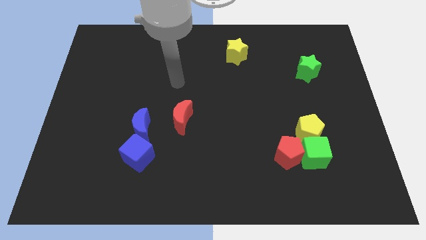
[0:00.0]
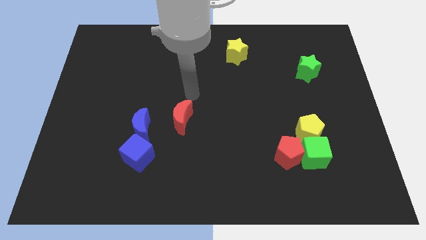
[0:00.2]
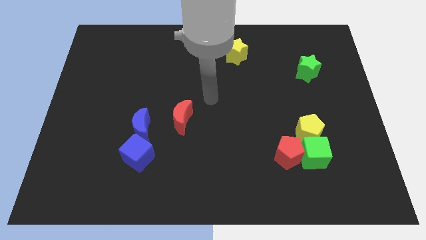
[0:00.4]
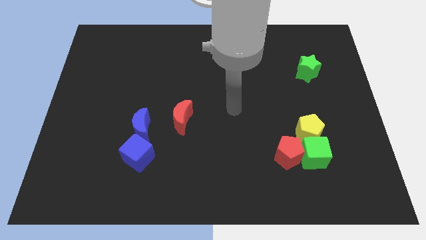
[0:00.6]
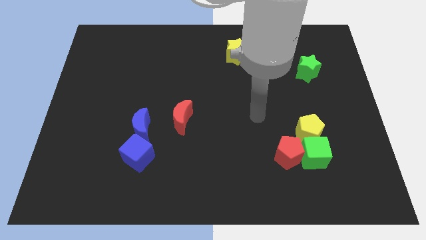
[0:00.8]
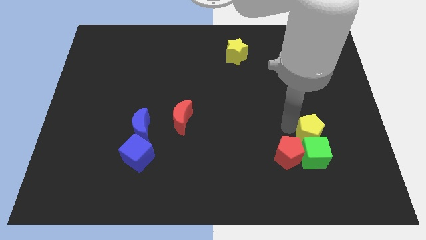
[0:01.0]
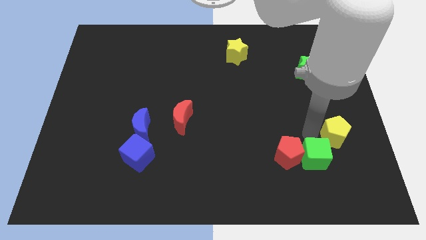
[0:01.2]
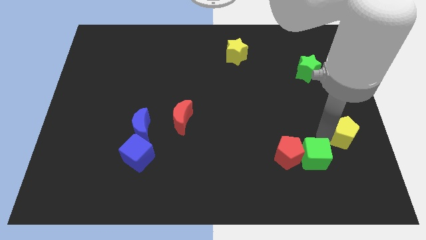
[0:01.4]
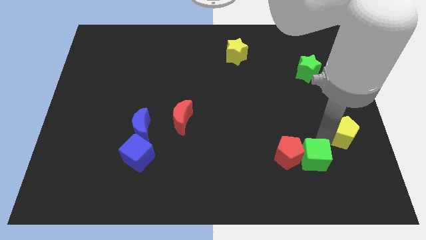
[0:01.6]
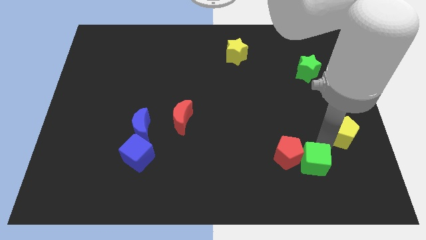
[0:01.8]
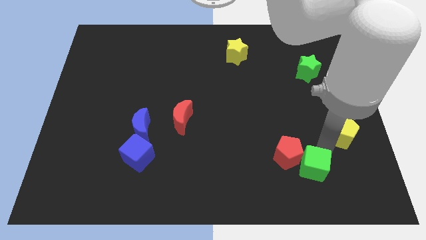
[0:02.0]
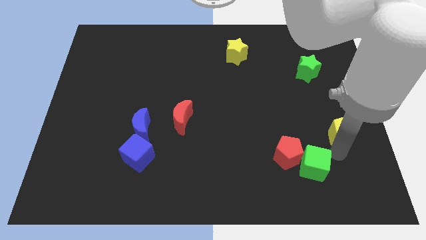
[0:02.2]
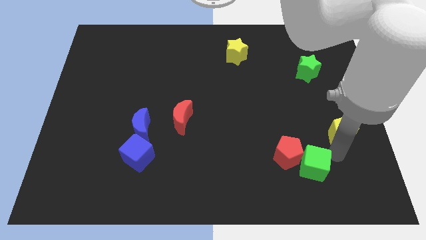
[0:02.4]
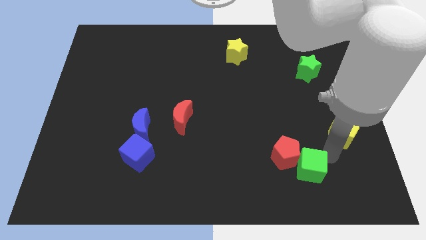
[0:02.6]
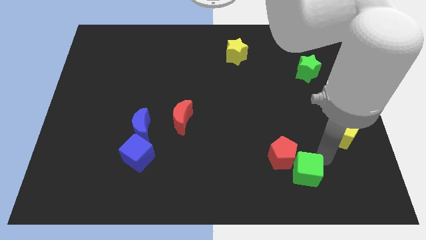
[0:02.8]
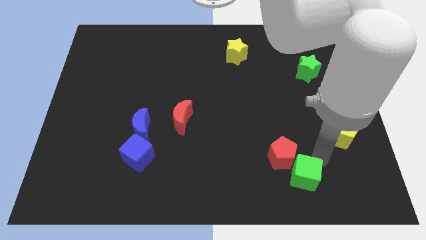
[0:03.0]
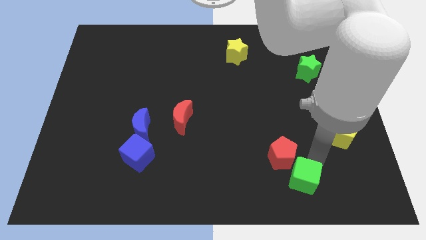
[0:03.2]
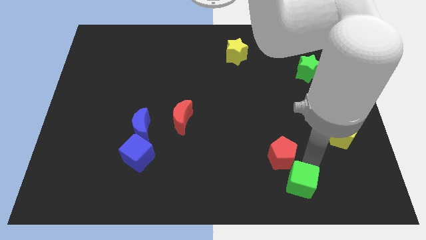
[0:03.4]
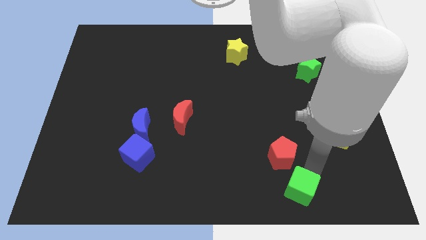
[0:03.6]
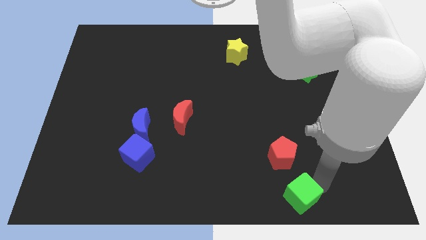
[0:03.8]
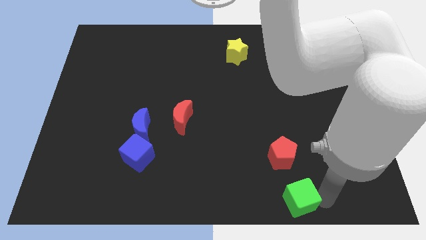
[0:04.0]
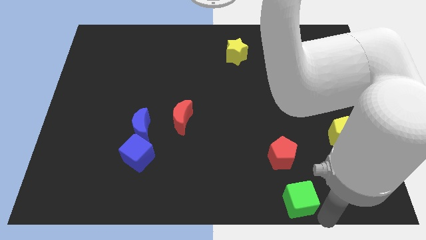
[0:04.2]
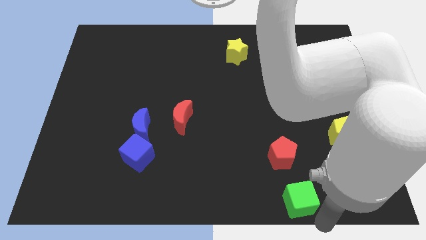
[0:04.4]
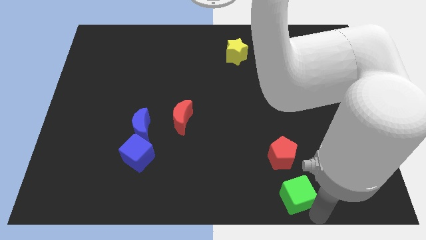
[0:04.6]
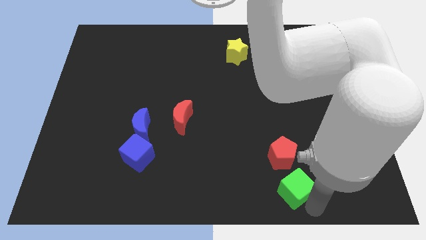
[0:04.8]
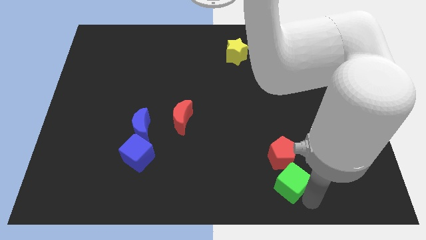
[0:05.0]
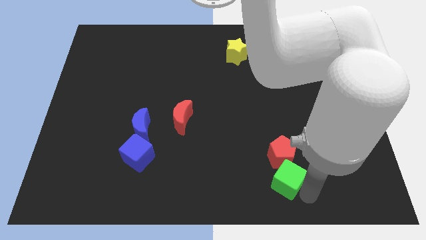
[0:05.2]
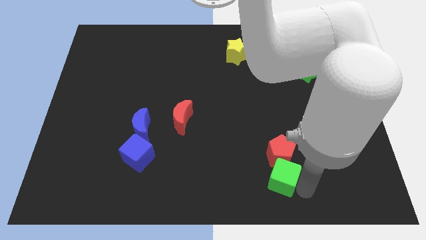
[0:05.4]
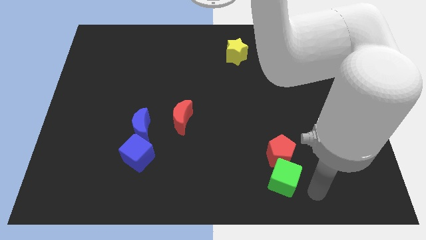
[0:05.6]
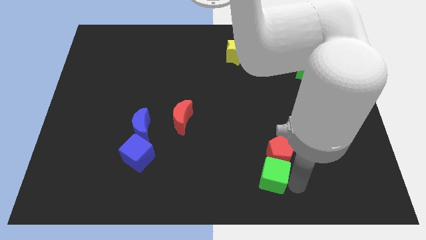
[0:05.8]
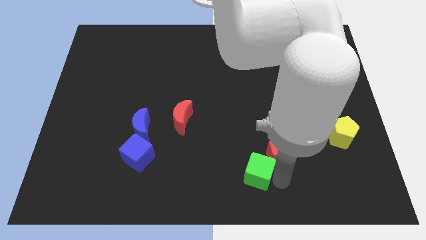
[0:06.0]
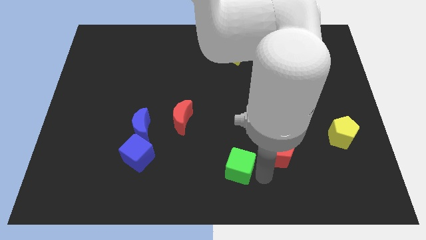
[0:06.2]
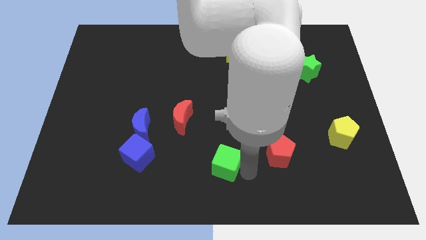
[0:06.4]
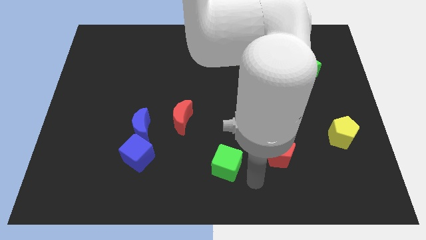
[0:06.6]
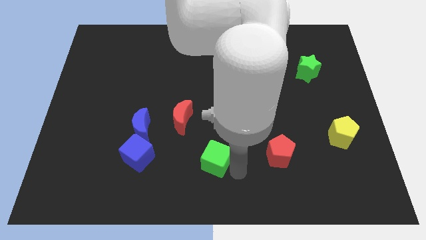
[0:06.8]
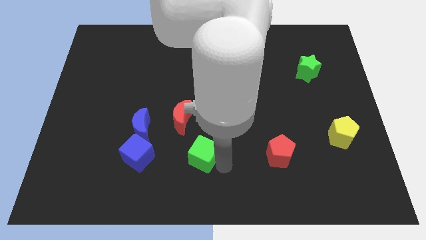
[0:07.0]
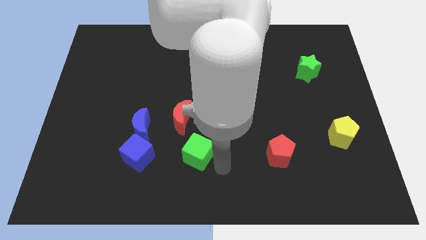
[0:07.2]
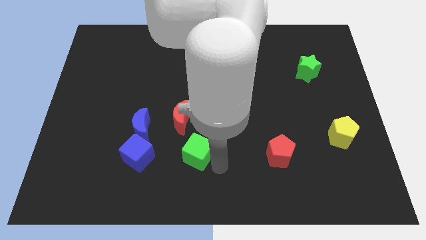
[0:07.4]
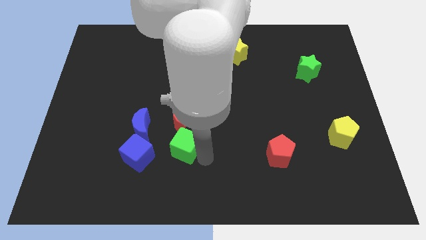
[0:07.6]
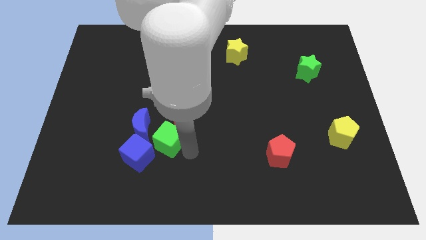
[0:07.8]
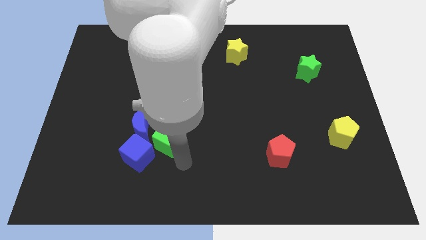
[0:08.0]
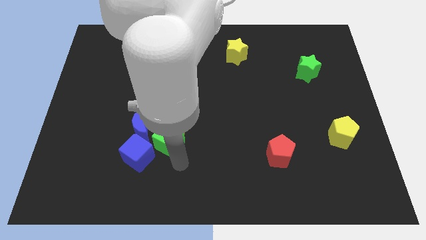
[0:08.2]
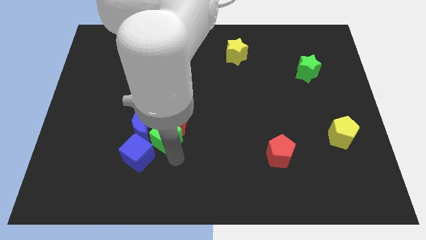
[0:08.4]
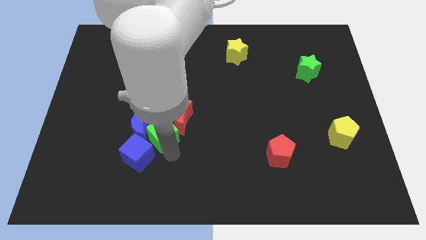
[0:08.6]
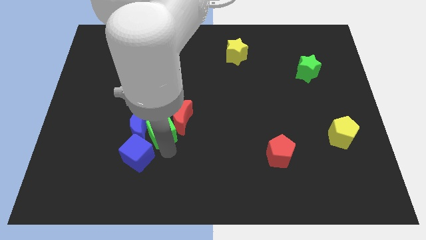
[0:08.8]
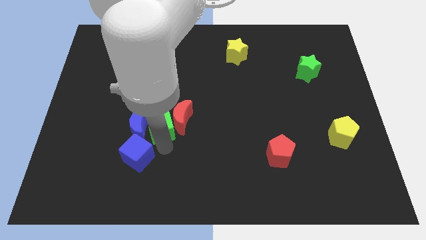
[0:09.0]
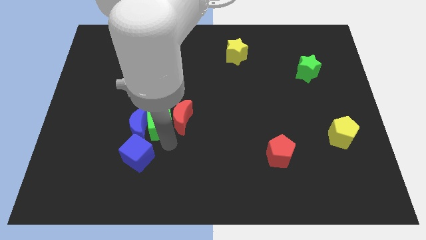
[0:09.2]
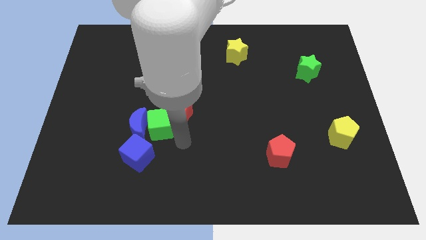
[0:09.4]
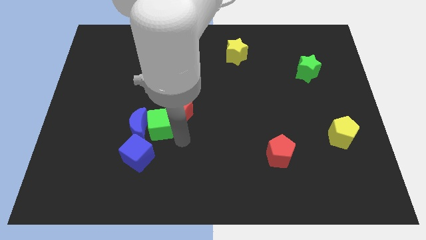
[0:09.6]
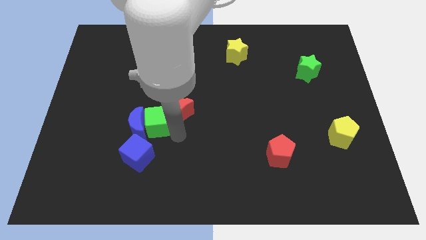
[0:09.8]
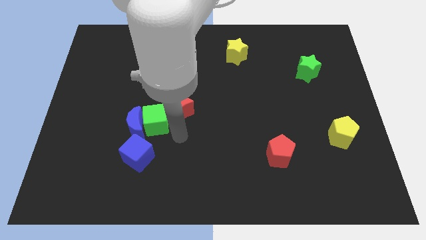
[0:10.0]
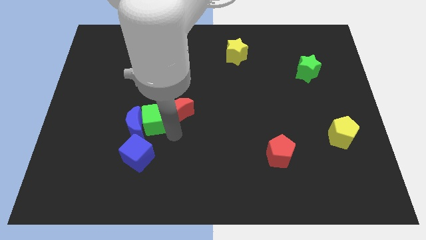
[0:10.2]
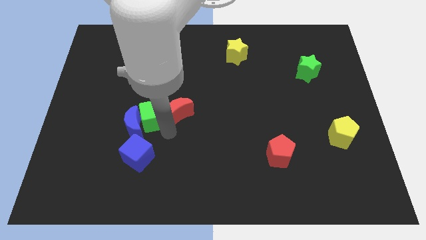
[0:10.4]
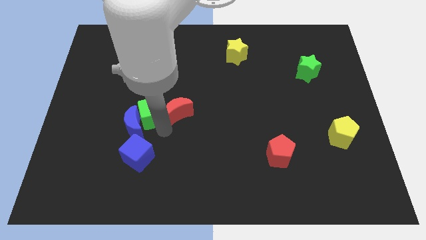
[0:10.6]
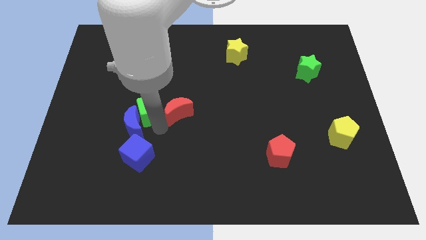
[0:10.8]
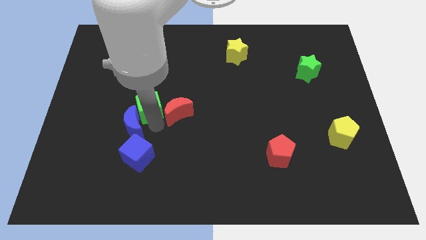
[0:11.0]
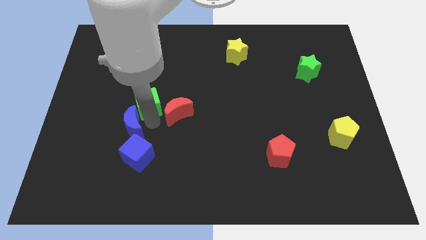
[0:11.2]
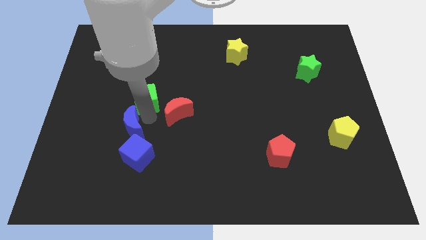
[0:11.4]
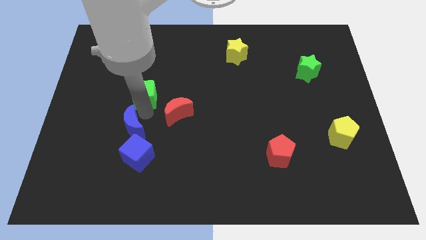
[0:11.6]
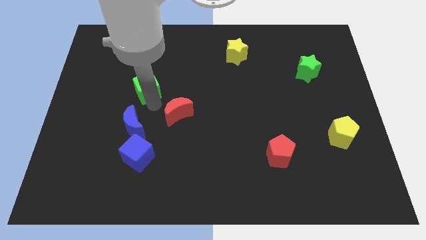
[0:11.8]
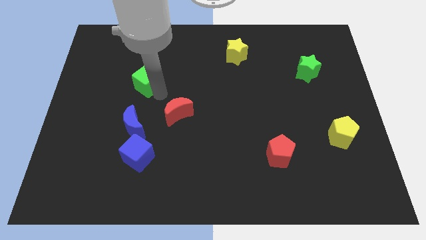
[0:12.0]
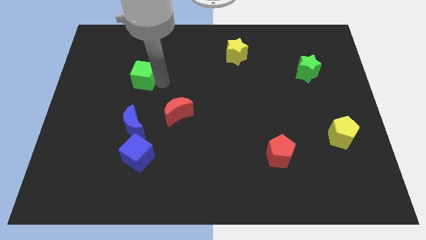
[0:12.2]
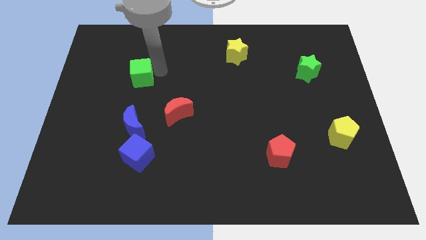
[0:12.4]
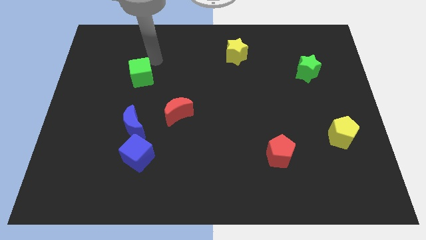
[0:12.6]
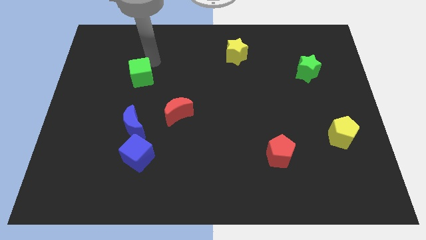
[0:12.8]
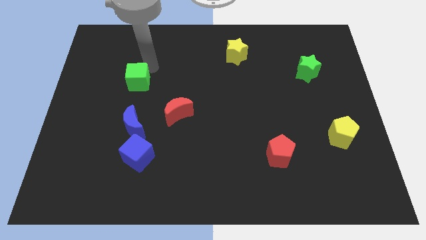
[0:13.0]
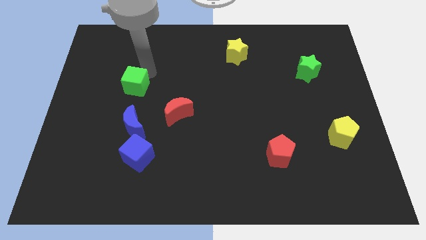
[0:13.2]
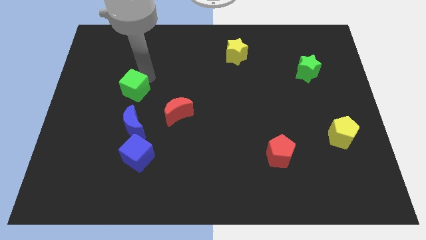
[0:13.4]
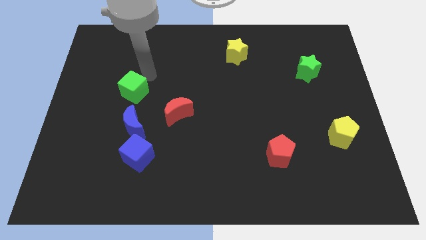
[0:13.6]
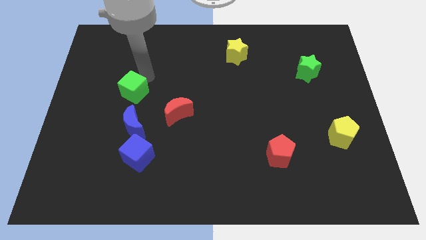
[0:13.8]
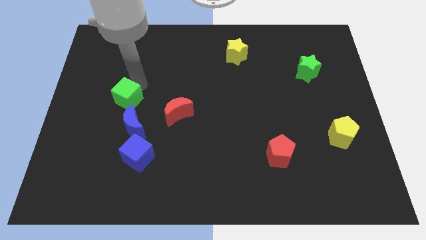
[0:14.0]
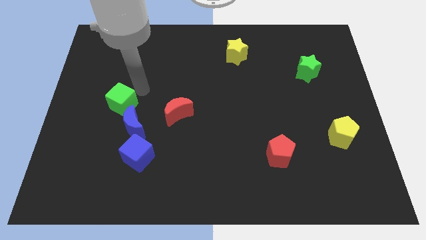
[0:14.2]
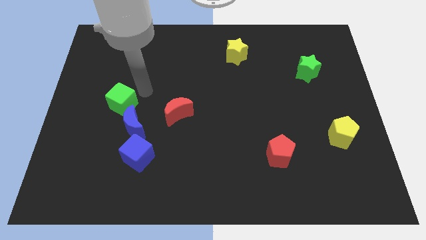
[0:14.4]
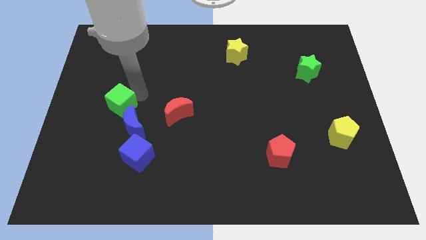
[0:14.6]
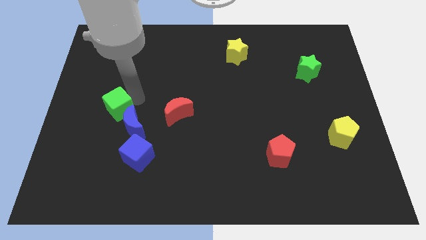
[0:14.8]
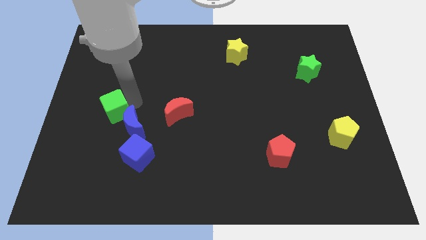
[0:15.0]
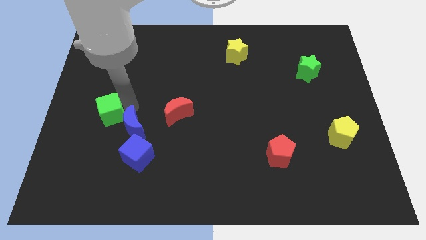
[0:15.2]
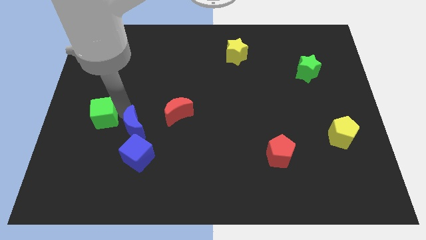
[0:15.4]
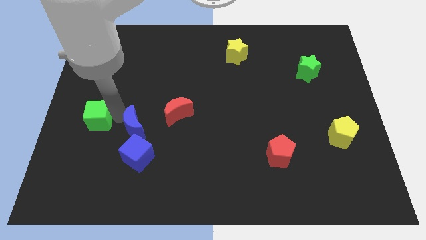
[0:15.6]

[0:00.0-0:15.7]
push the green cube to the center left
